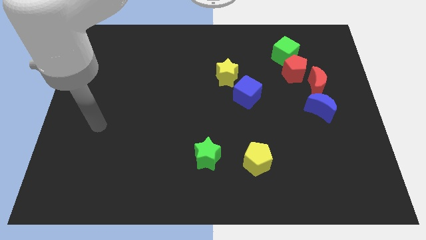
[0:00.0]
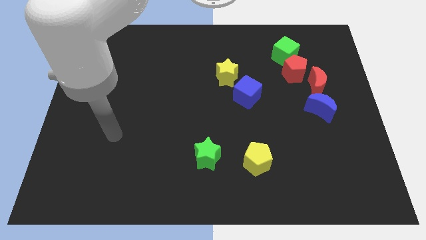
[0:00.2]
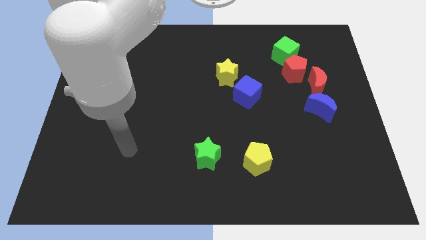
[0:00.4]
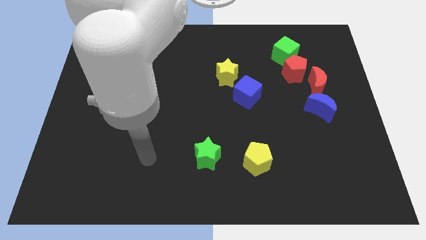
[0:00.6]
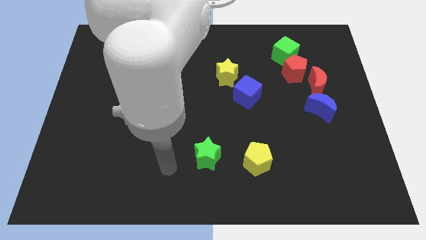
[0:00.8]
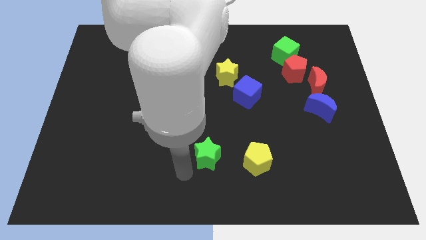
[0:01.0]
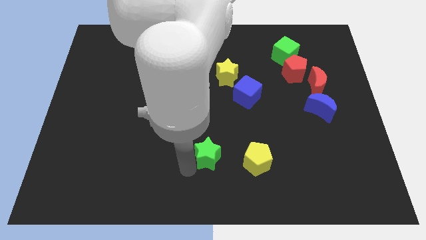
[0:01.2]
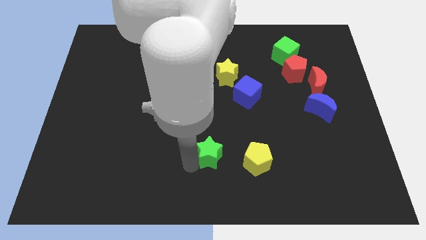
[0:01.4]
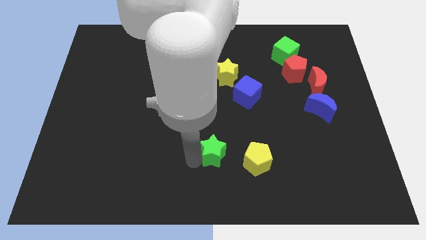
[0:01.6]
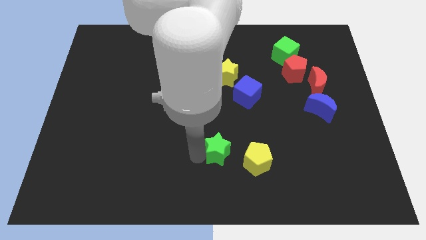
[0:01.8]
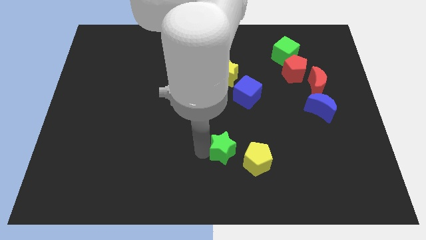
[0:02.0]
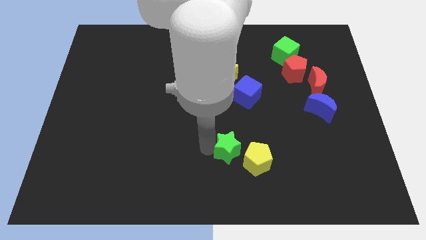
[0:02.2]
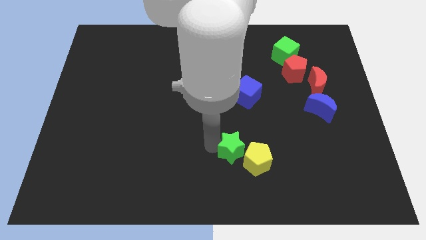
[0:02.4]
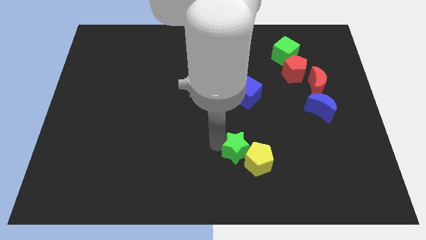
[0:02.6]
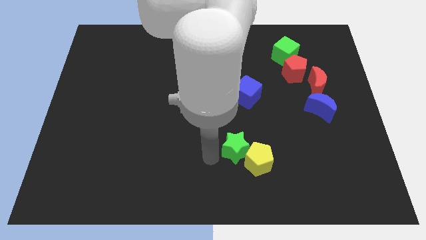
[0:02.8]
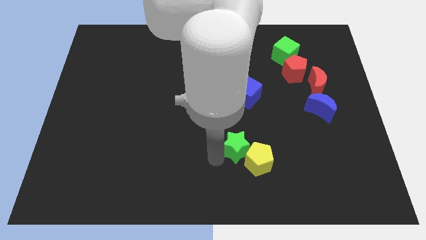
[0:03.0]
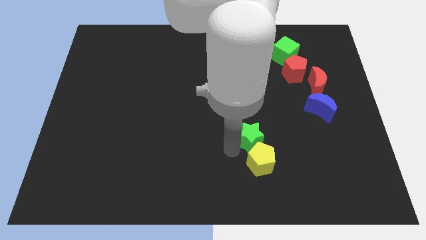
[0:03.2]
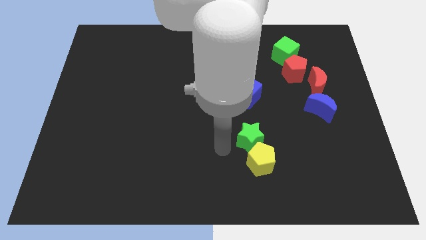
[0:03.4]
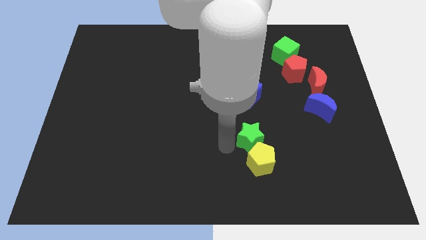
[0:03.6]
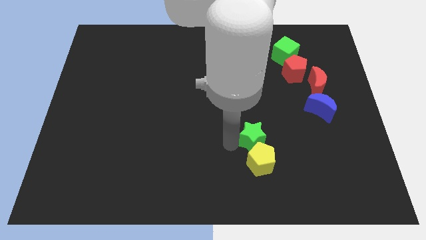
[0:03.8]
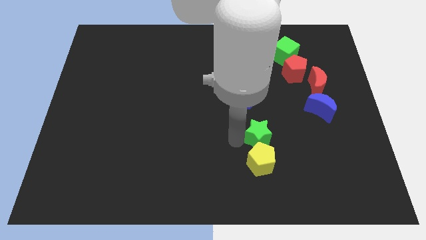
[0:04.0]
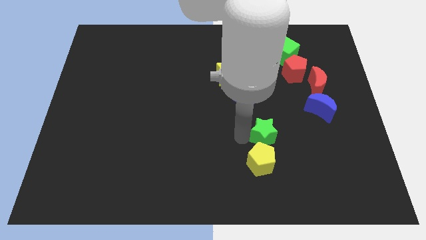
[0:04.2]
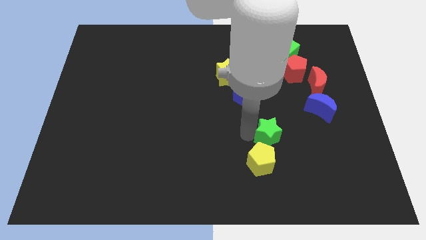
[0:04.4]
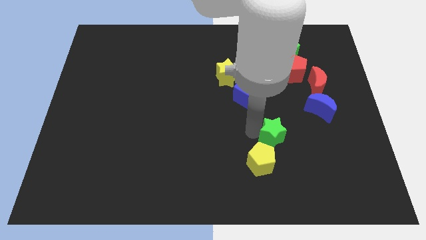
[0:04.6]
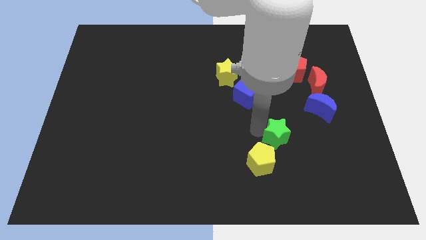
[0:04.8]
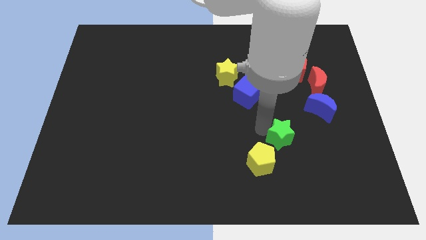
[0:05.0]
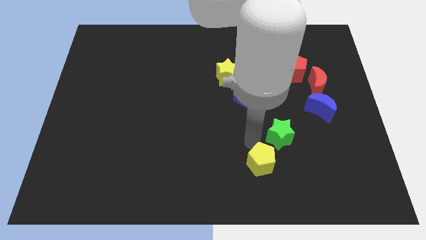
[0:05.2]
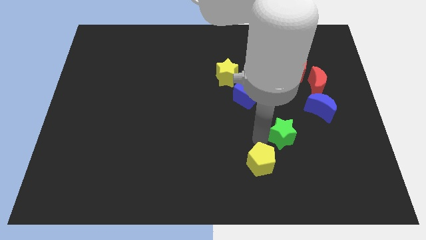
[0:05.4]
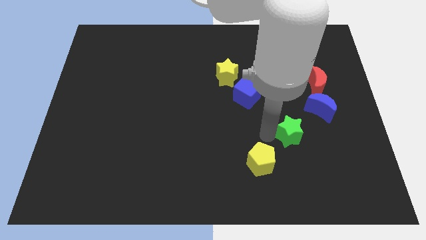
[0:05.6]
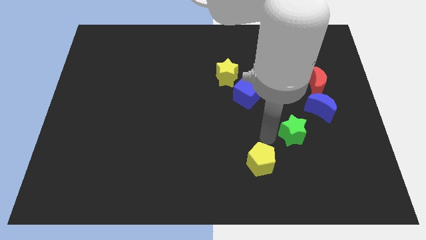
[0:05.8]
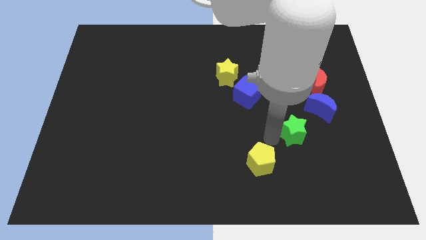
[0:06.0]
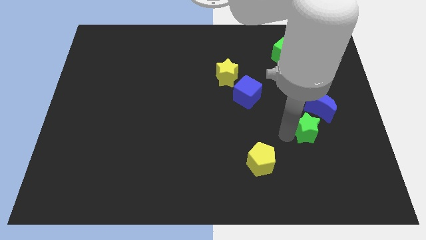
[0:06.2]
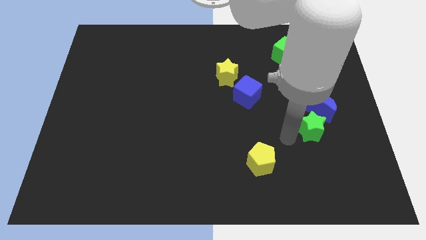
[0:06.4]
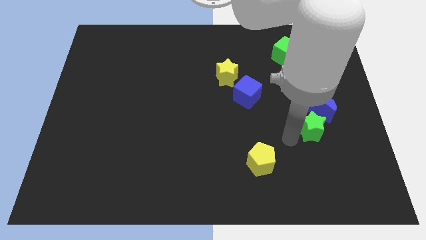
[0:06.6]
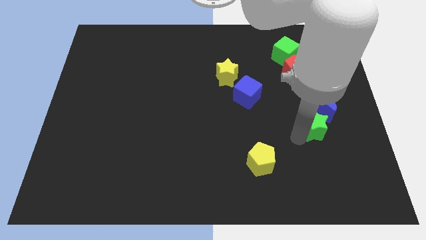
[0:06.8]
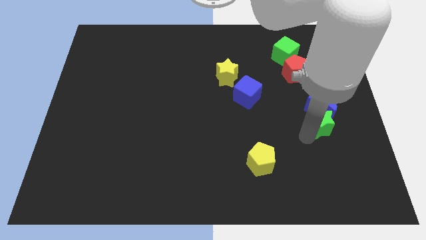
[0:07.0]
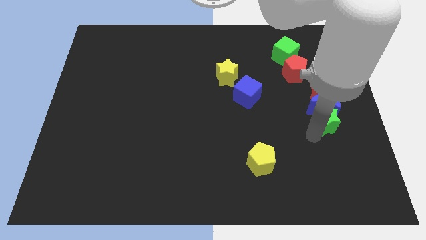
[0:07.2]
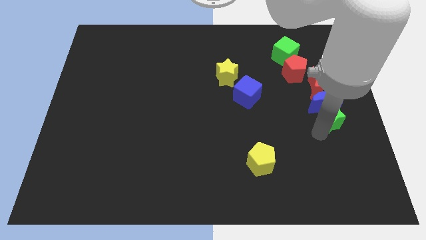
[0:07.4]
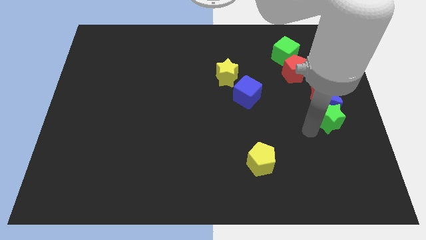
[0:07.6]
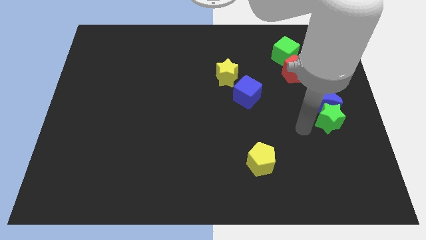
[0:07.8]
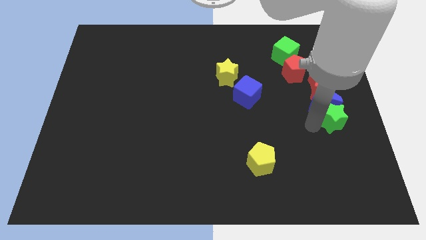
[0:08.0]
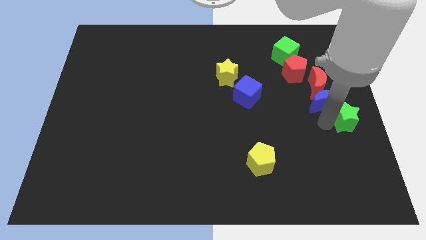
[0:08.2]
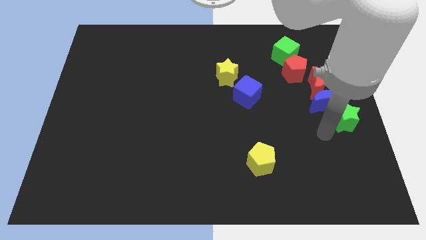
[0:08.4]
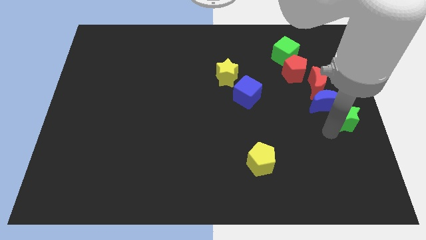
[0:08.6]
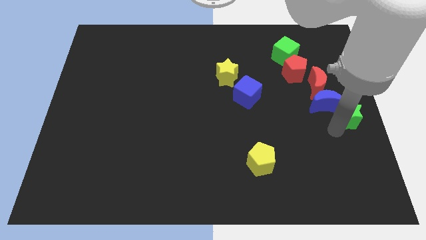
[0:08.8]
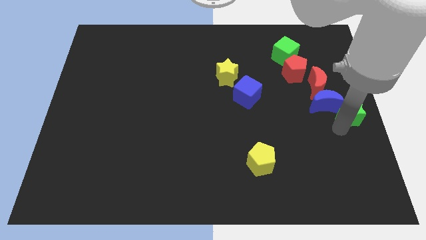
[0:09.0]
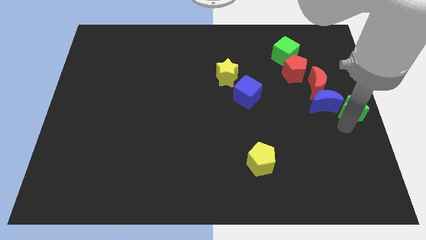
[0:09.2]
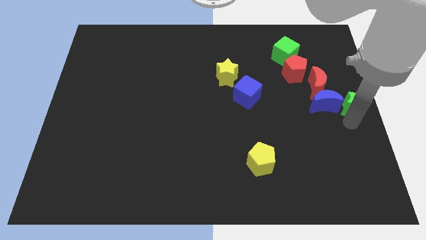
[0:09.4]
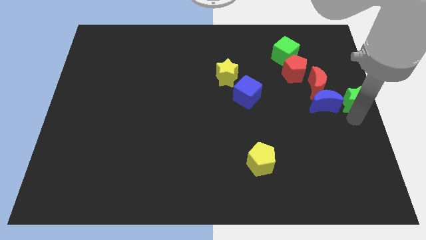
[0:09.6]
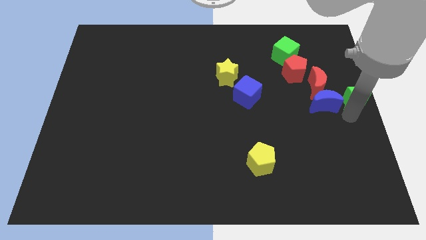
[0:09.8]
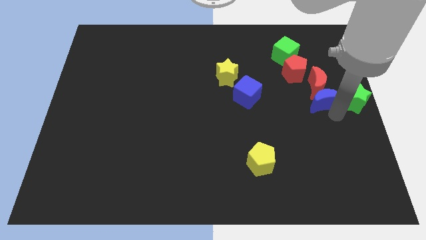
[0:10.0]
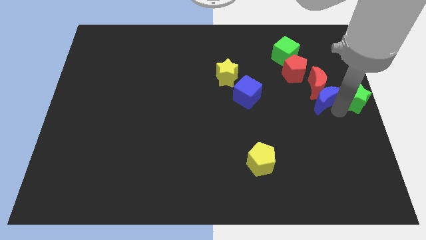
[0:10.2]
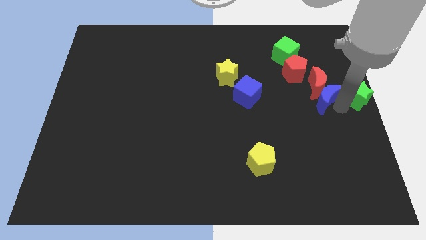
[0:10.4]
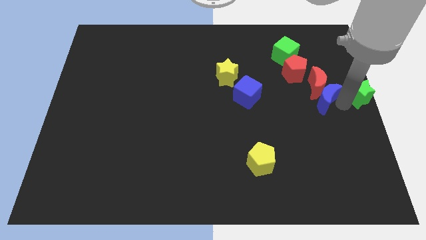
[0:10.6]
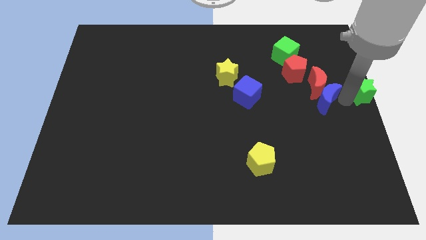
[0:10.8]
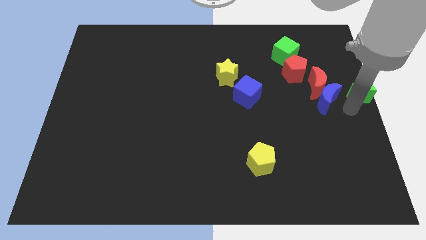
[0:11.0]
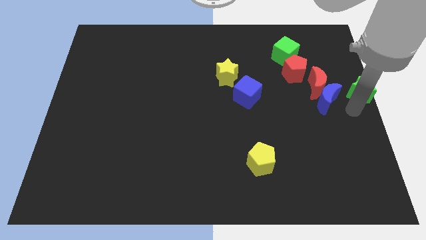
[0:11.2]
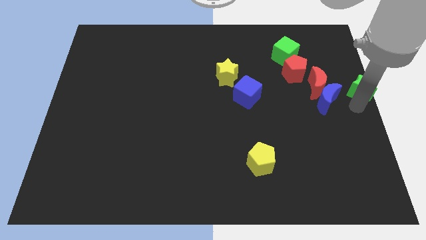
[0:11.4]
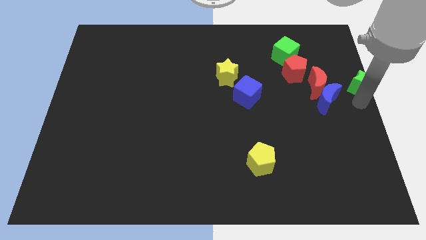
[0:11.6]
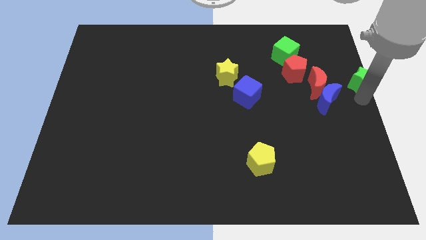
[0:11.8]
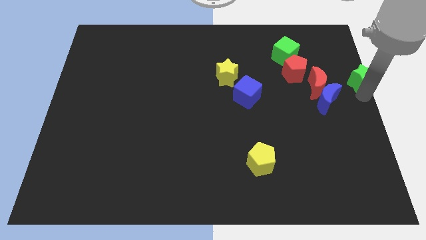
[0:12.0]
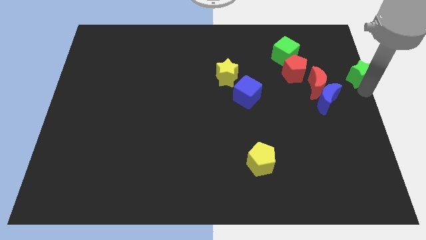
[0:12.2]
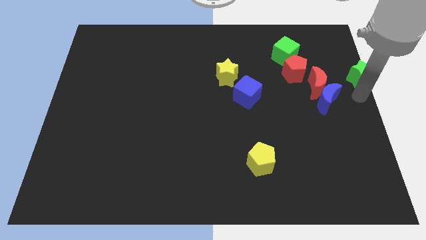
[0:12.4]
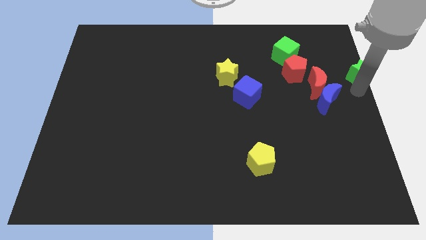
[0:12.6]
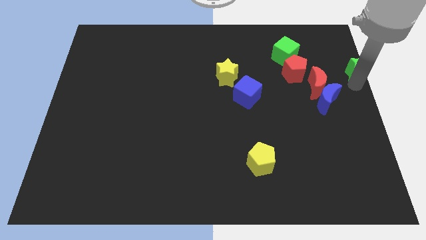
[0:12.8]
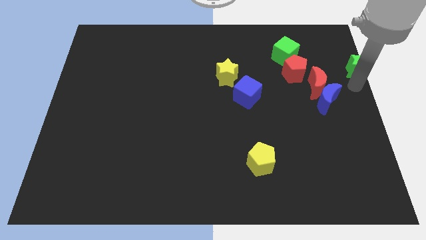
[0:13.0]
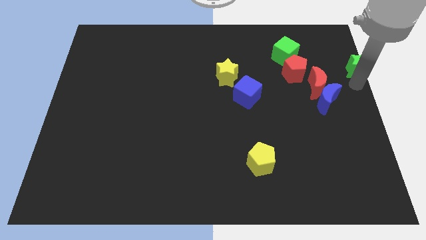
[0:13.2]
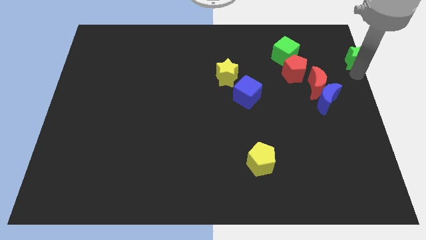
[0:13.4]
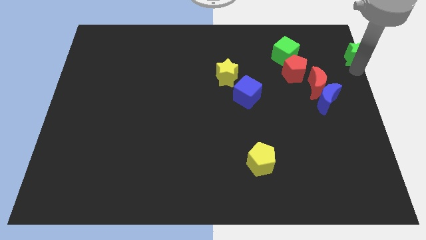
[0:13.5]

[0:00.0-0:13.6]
move the green star to the top right
